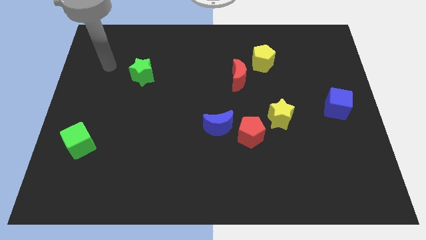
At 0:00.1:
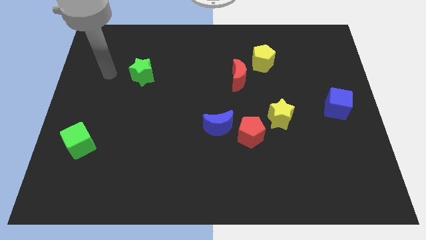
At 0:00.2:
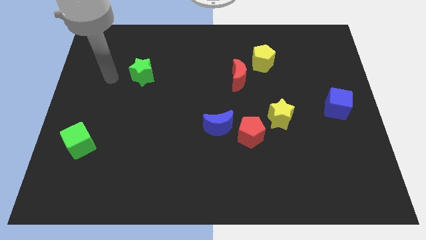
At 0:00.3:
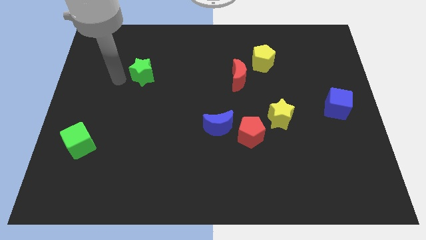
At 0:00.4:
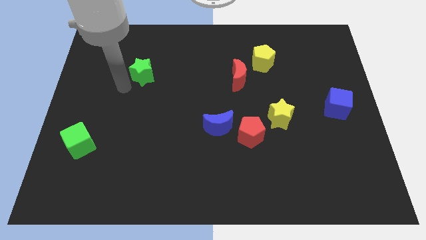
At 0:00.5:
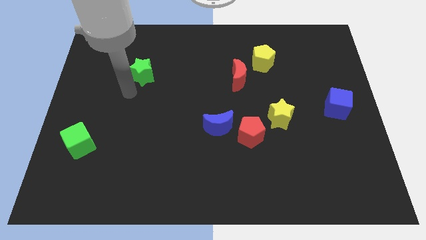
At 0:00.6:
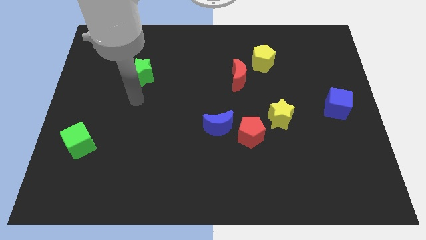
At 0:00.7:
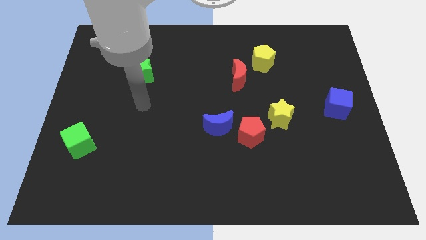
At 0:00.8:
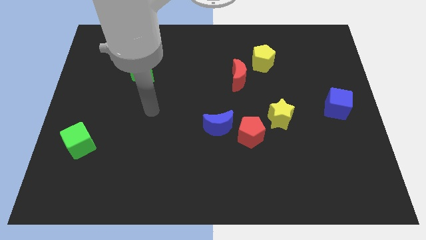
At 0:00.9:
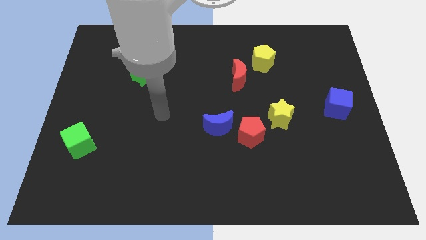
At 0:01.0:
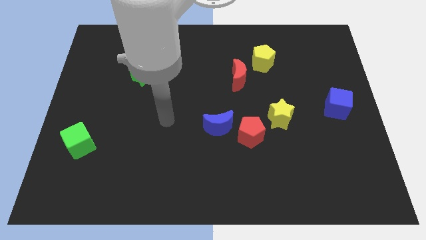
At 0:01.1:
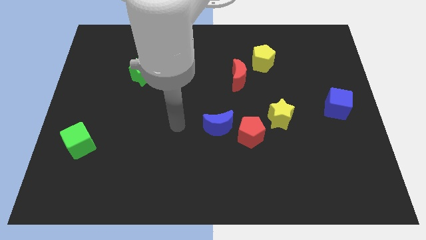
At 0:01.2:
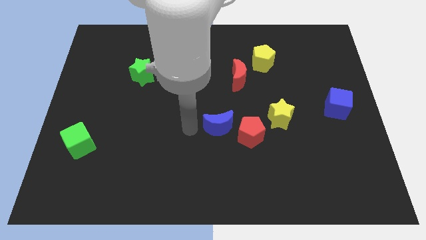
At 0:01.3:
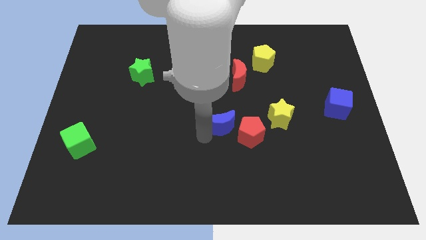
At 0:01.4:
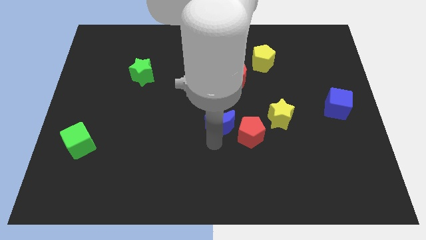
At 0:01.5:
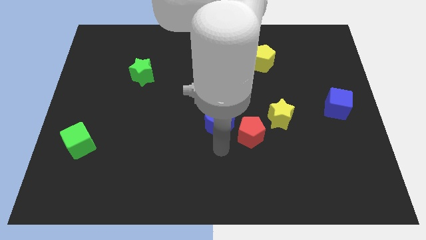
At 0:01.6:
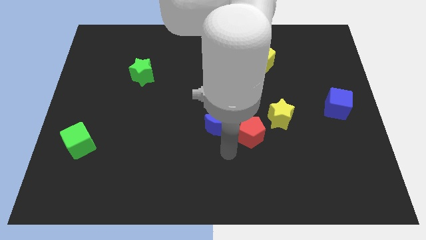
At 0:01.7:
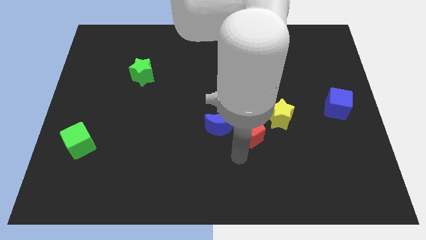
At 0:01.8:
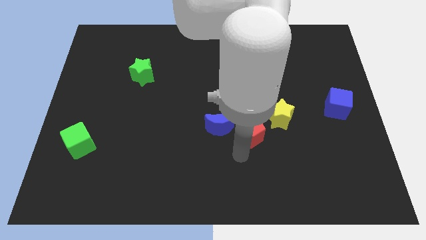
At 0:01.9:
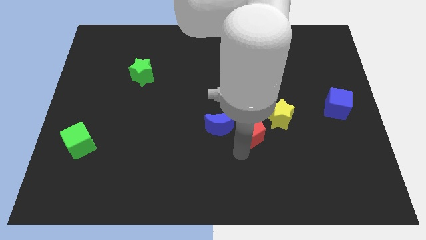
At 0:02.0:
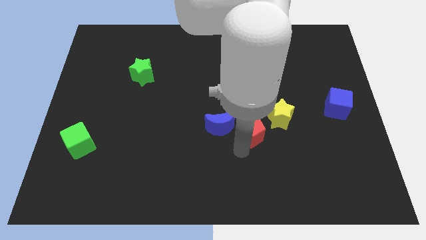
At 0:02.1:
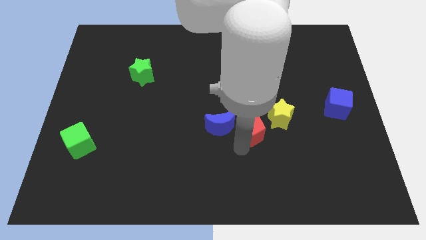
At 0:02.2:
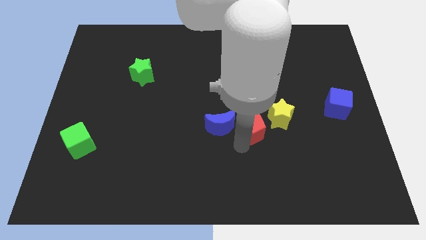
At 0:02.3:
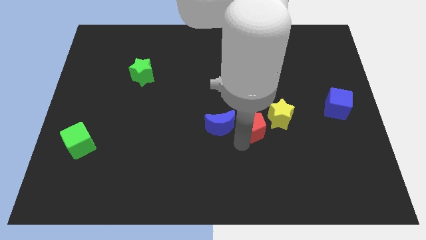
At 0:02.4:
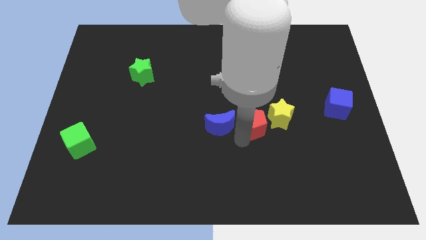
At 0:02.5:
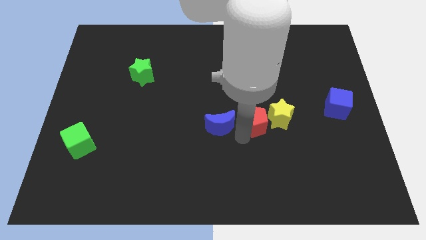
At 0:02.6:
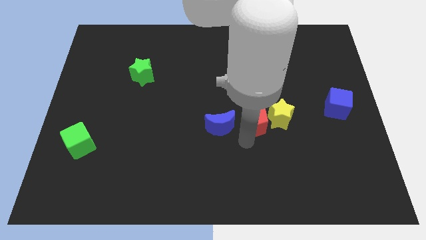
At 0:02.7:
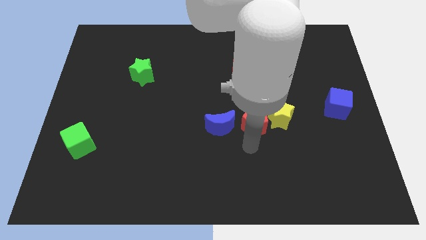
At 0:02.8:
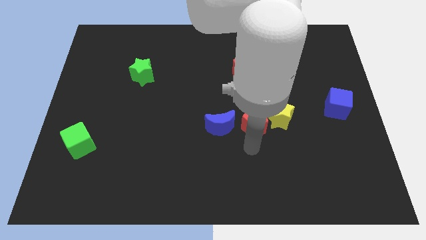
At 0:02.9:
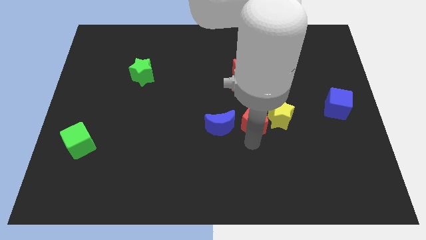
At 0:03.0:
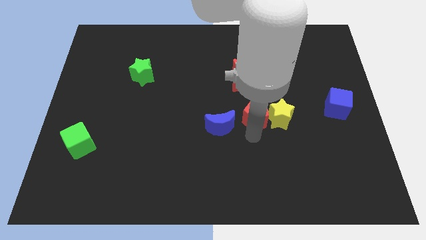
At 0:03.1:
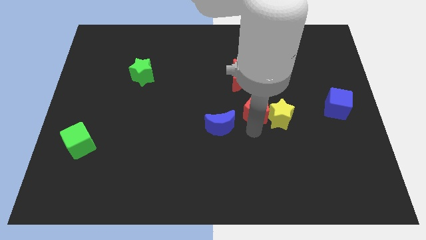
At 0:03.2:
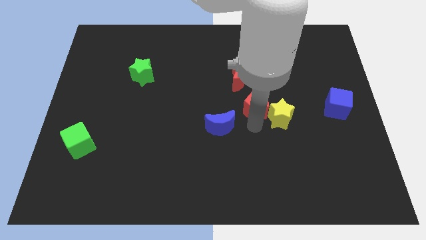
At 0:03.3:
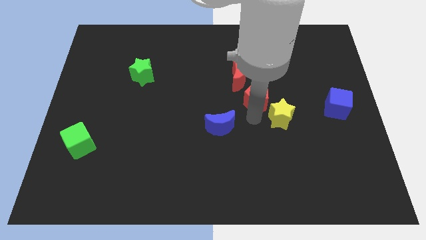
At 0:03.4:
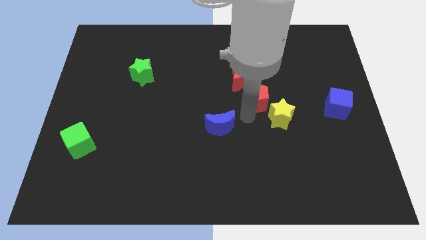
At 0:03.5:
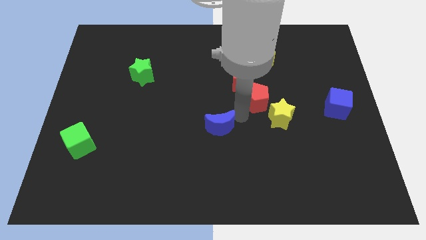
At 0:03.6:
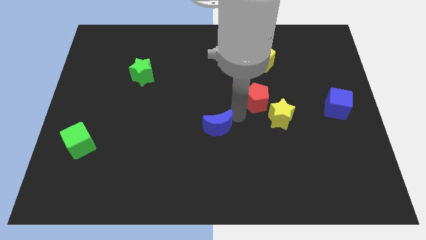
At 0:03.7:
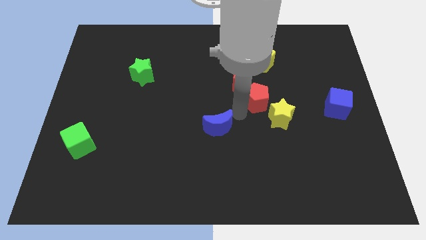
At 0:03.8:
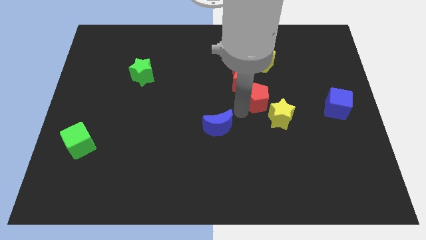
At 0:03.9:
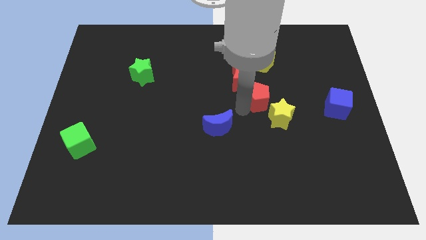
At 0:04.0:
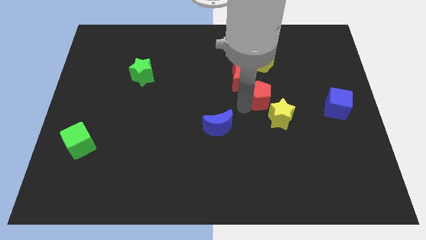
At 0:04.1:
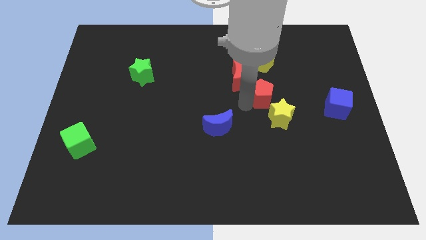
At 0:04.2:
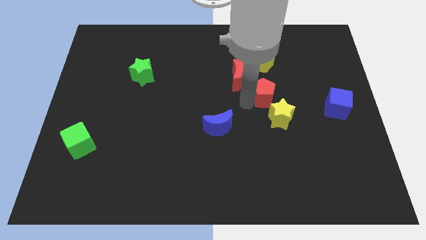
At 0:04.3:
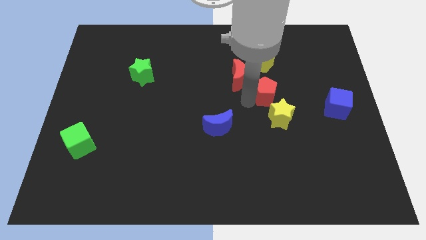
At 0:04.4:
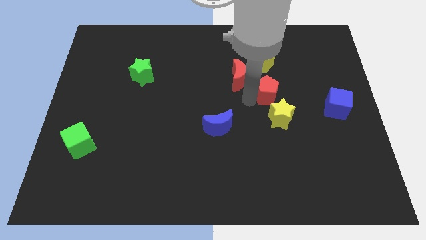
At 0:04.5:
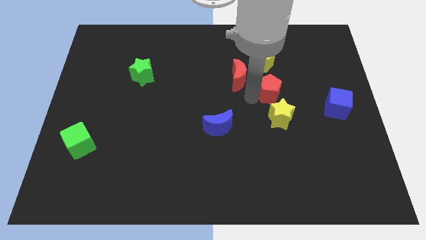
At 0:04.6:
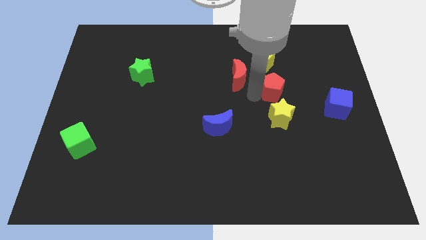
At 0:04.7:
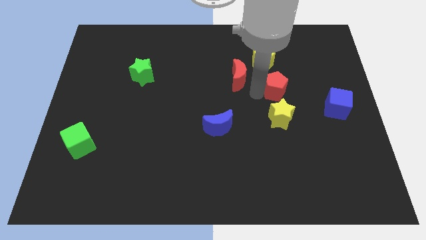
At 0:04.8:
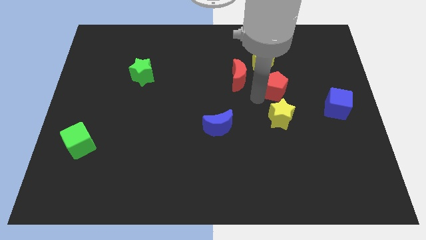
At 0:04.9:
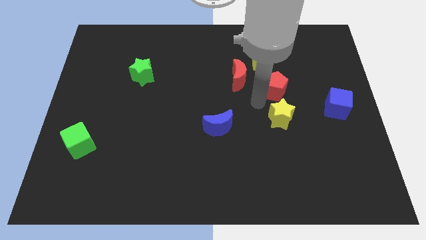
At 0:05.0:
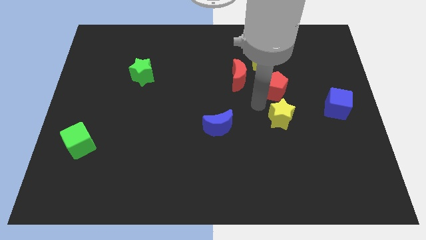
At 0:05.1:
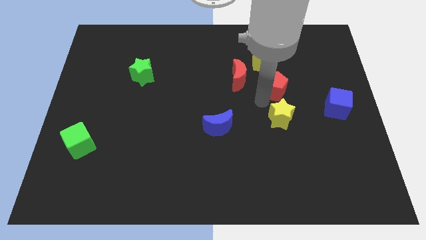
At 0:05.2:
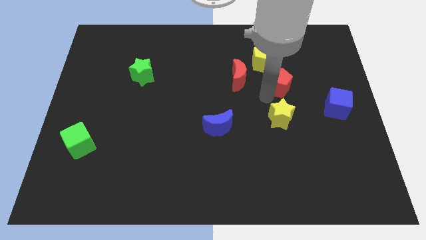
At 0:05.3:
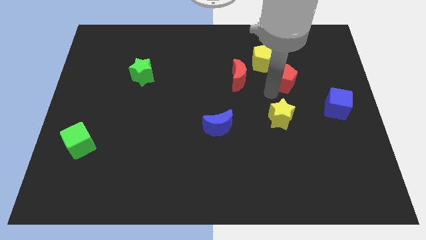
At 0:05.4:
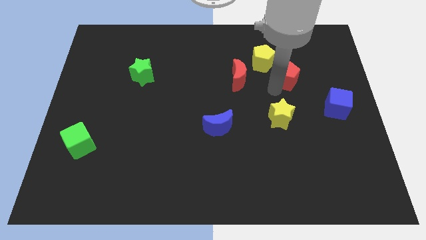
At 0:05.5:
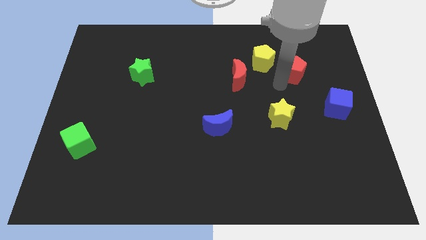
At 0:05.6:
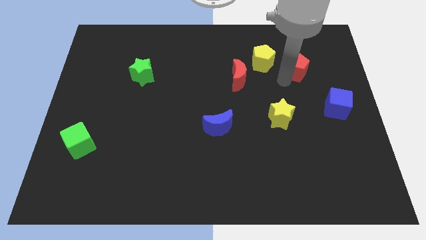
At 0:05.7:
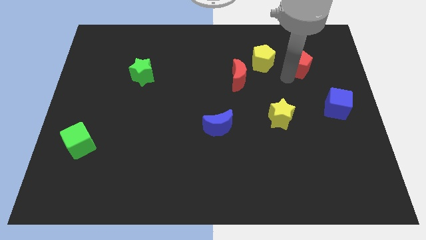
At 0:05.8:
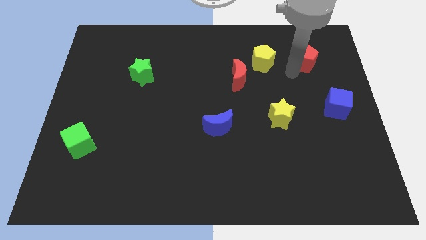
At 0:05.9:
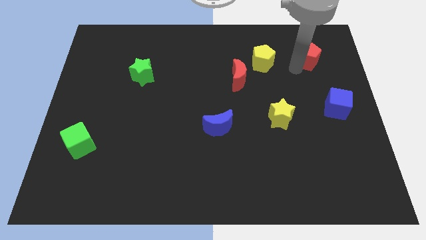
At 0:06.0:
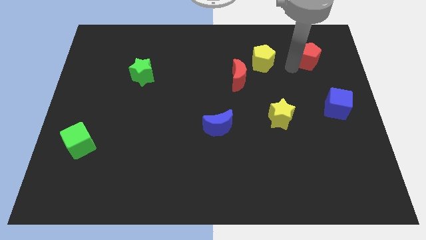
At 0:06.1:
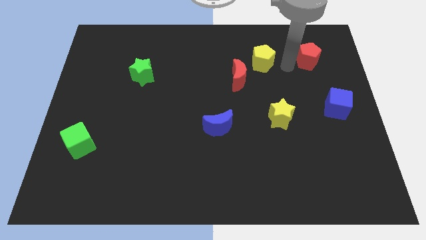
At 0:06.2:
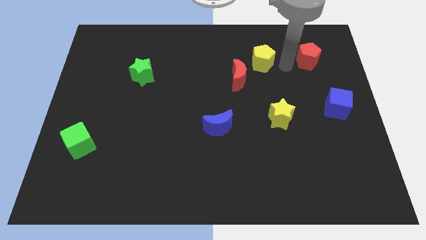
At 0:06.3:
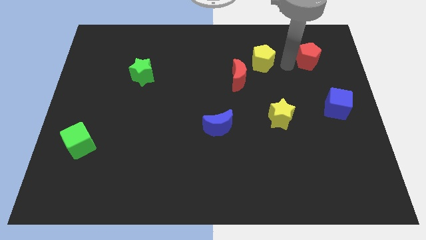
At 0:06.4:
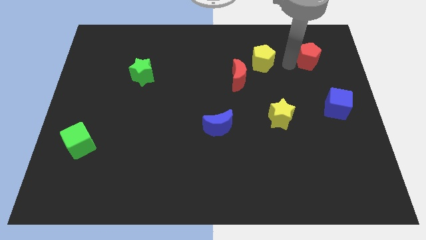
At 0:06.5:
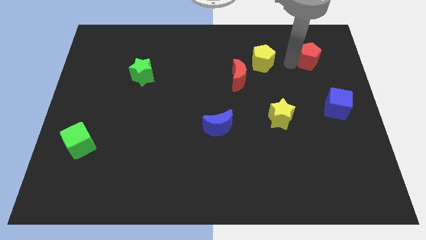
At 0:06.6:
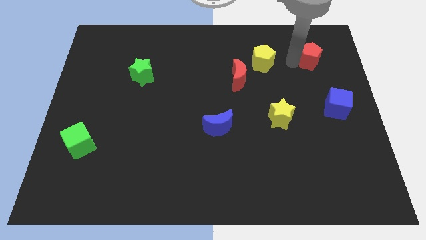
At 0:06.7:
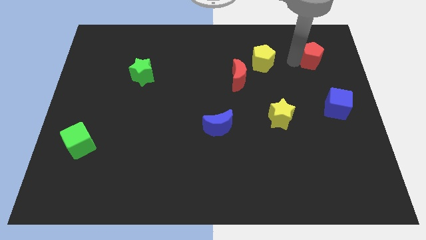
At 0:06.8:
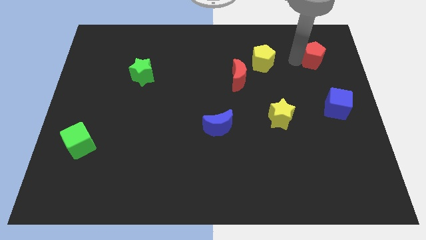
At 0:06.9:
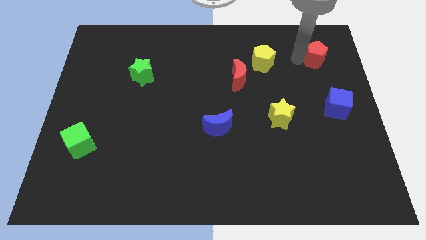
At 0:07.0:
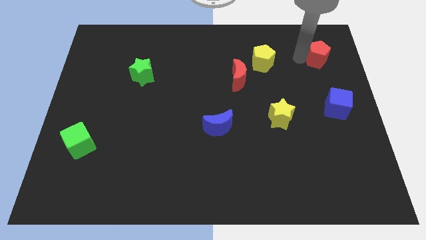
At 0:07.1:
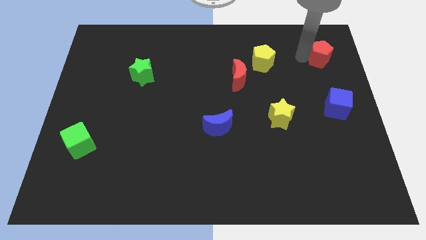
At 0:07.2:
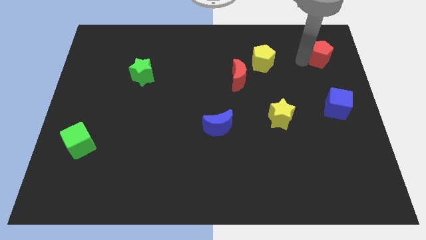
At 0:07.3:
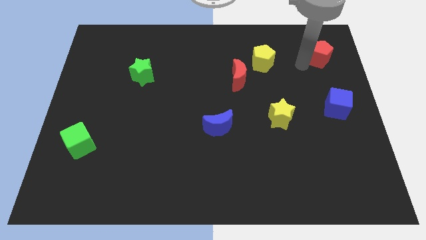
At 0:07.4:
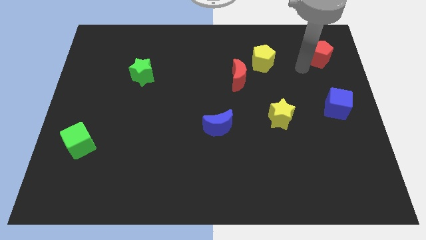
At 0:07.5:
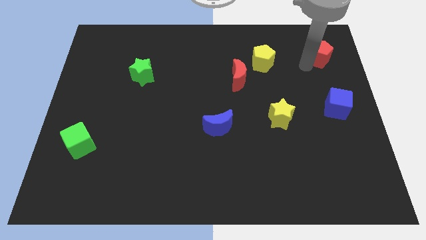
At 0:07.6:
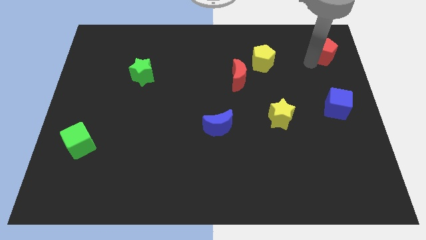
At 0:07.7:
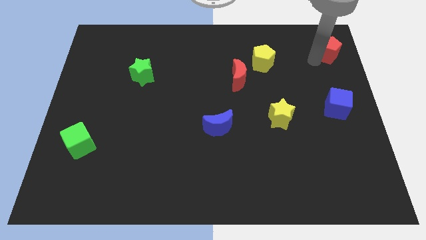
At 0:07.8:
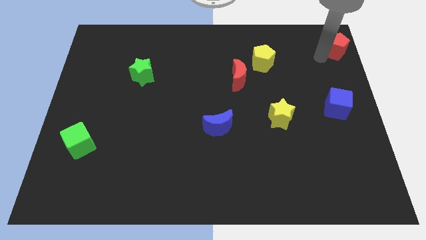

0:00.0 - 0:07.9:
slide the red pentagon to the top right of the board
